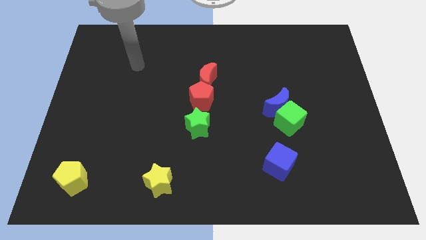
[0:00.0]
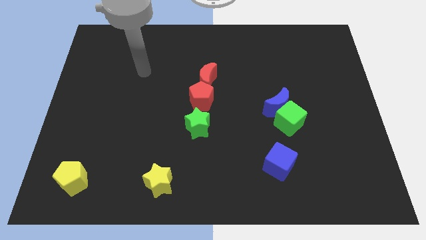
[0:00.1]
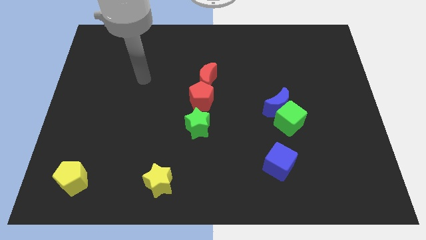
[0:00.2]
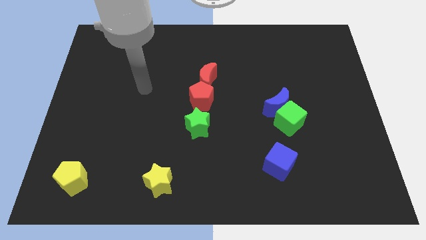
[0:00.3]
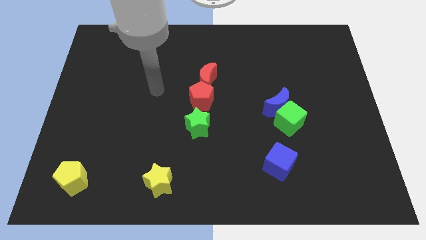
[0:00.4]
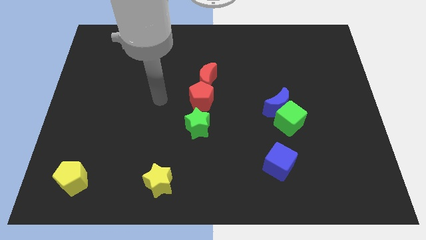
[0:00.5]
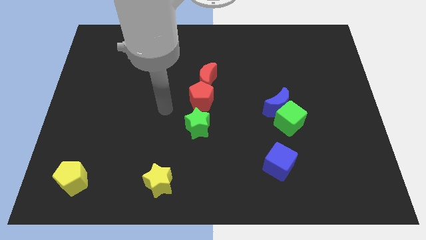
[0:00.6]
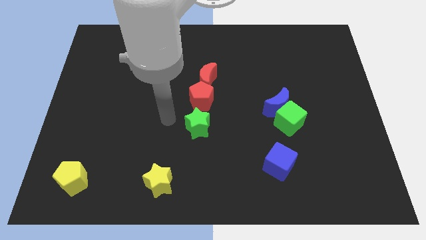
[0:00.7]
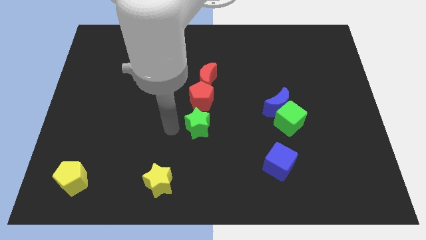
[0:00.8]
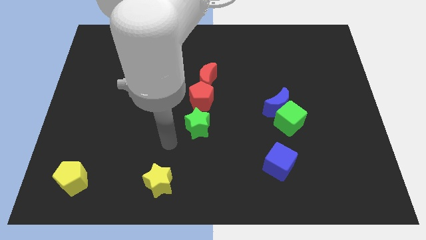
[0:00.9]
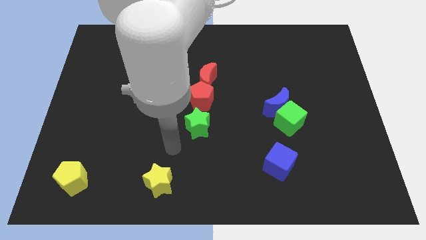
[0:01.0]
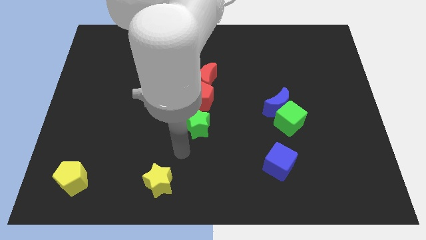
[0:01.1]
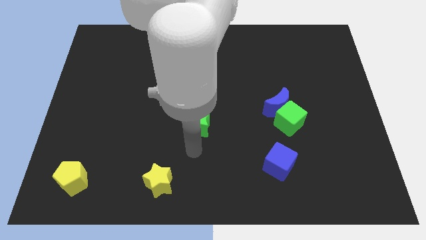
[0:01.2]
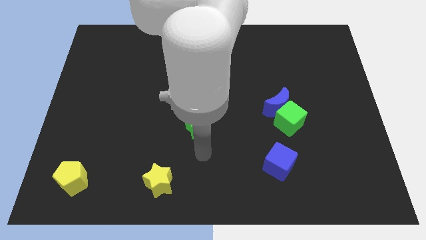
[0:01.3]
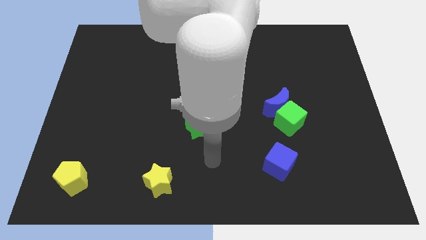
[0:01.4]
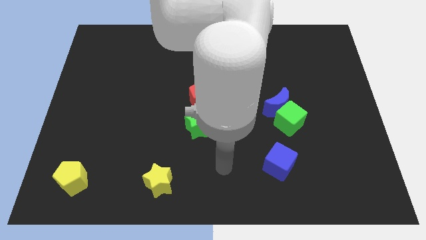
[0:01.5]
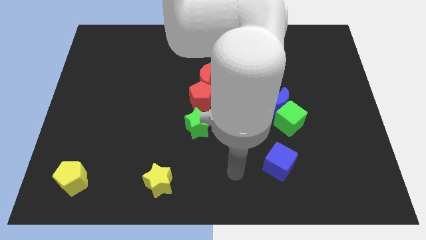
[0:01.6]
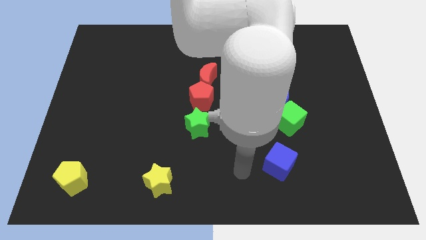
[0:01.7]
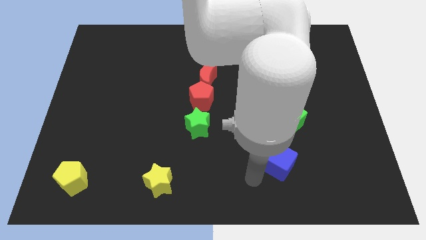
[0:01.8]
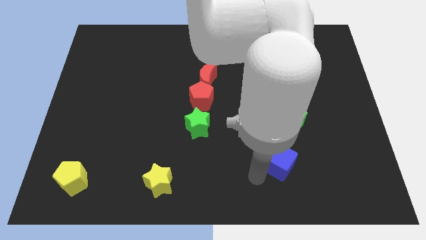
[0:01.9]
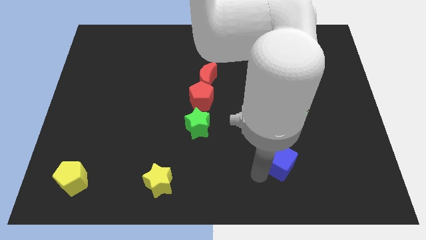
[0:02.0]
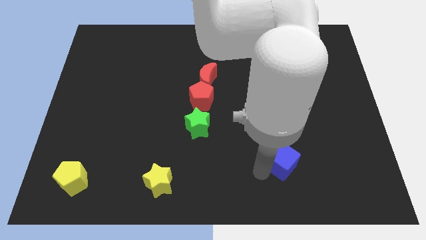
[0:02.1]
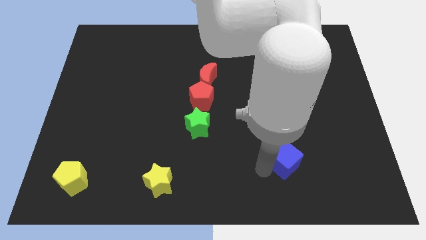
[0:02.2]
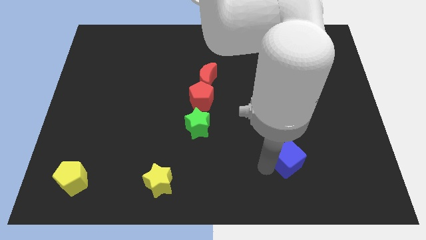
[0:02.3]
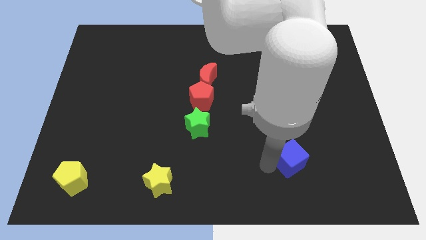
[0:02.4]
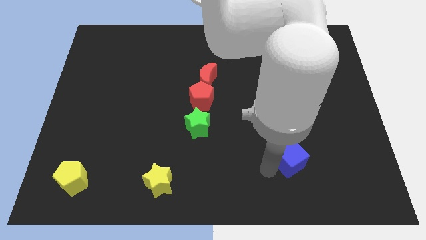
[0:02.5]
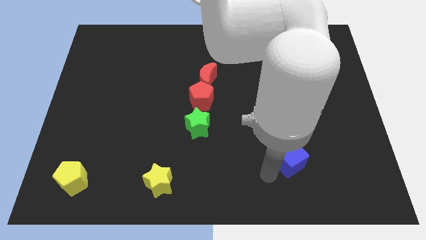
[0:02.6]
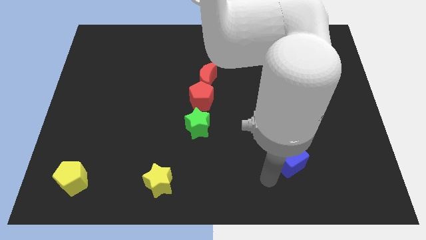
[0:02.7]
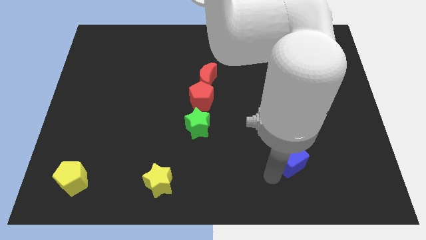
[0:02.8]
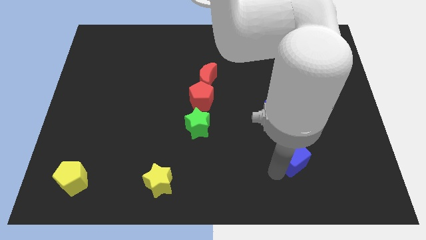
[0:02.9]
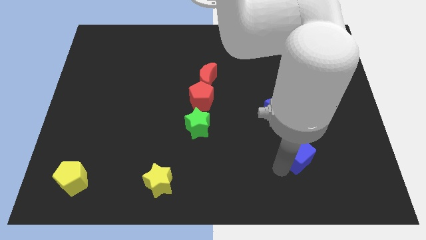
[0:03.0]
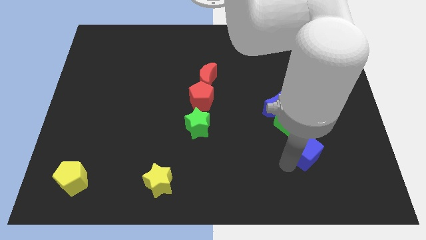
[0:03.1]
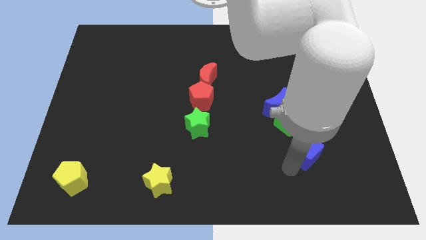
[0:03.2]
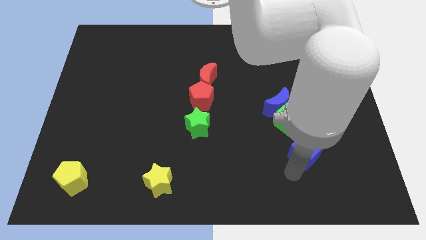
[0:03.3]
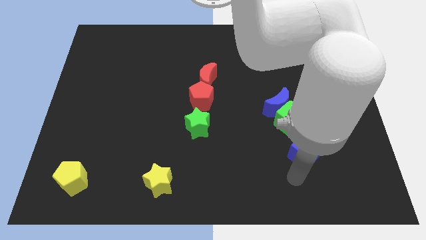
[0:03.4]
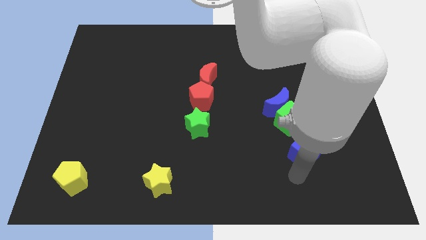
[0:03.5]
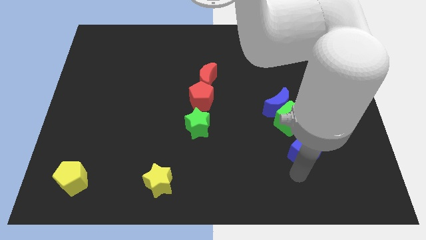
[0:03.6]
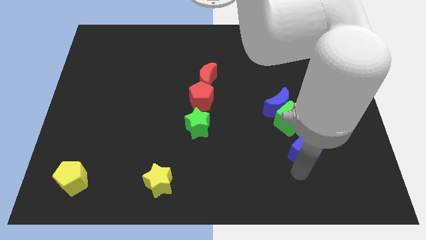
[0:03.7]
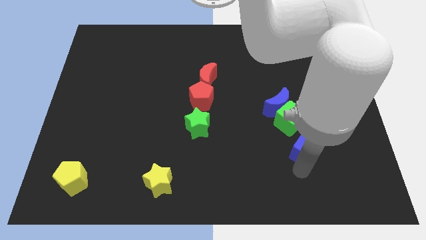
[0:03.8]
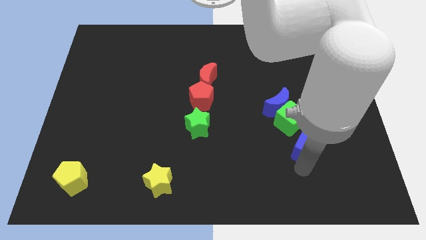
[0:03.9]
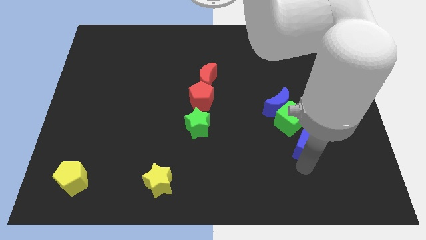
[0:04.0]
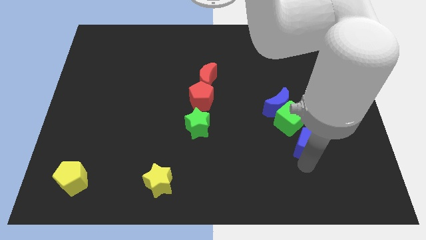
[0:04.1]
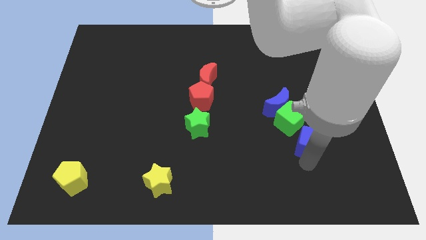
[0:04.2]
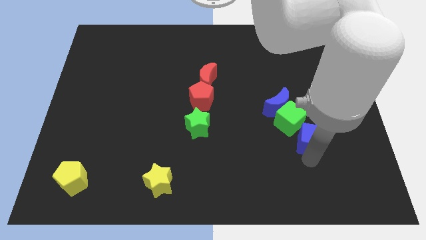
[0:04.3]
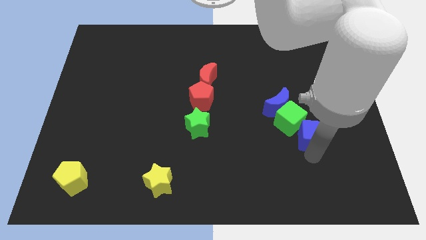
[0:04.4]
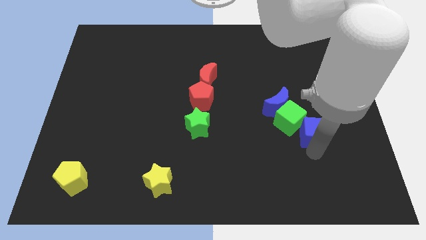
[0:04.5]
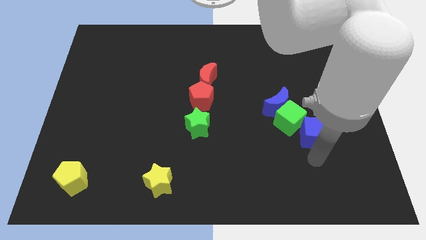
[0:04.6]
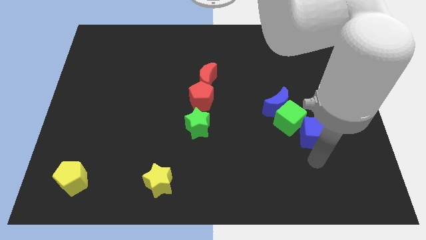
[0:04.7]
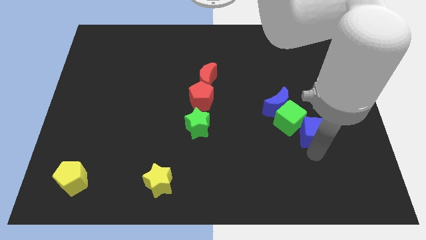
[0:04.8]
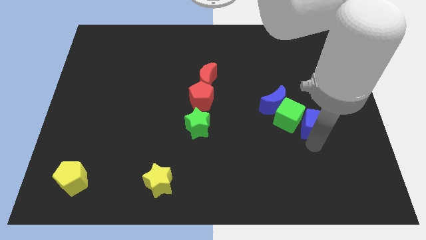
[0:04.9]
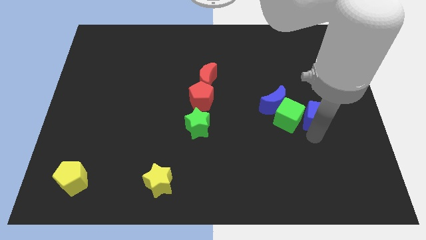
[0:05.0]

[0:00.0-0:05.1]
move the blue cube to the top right of the green cube

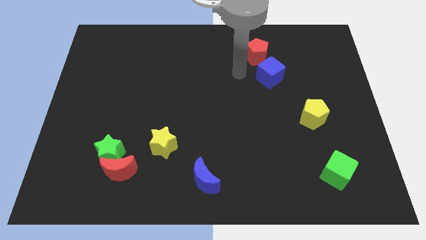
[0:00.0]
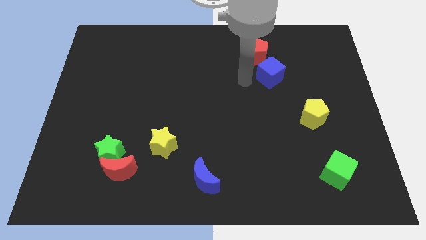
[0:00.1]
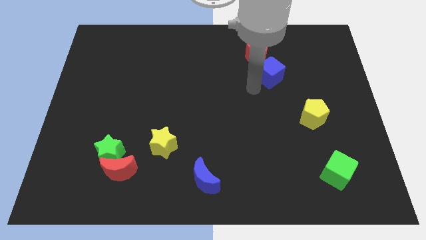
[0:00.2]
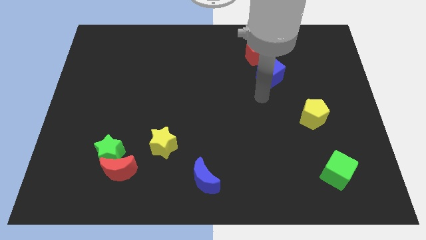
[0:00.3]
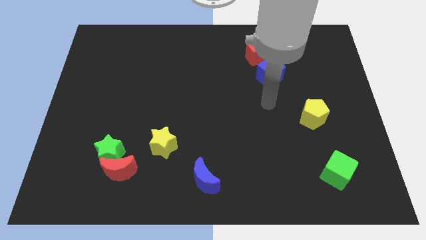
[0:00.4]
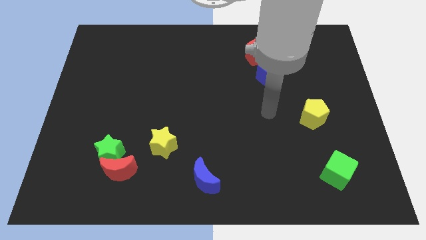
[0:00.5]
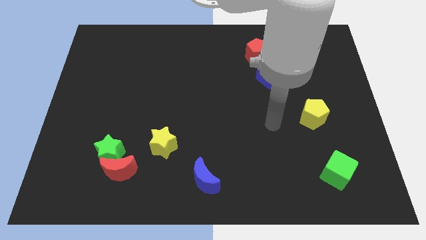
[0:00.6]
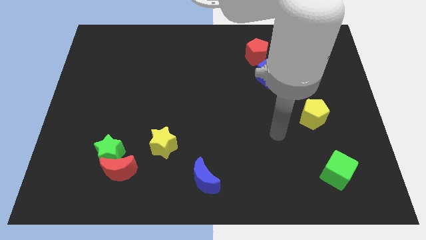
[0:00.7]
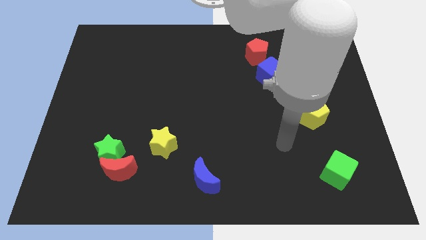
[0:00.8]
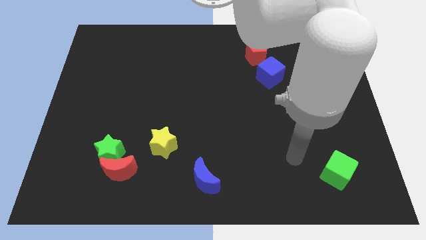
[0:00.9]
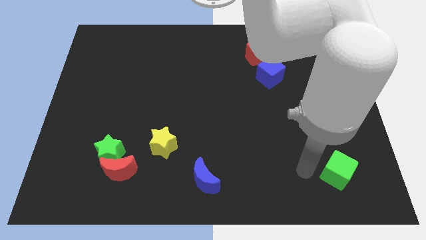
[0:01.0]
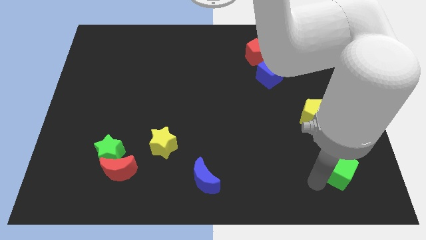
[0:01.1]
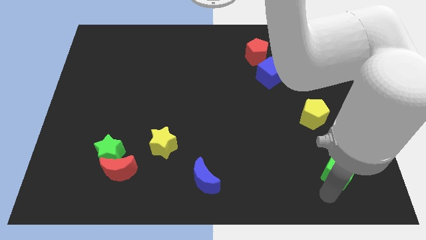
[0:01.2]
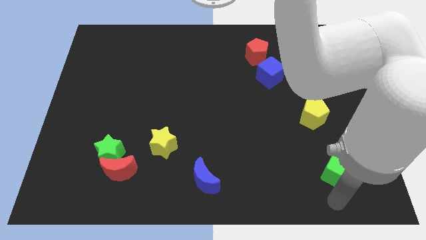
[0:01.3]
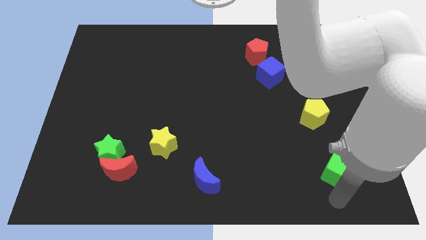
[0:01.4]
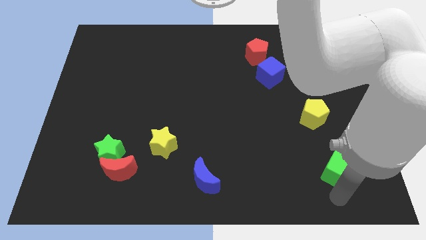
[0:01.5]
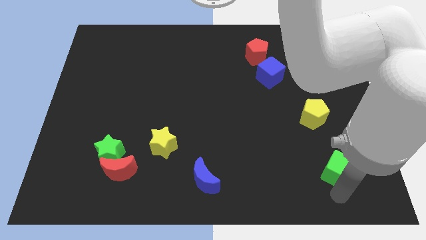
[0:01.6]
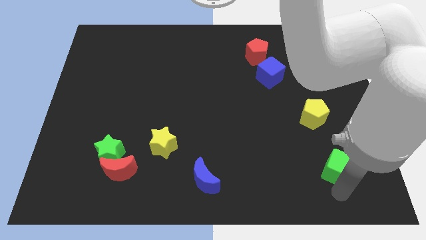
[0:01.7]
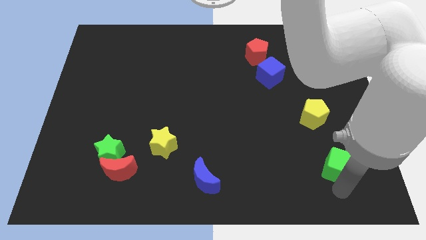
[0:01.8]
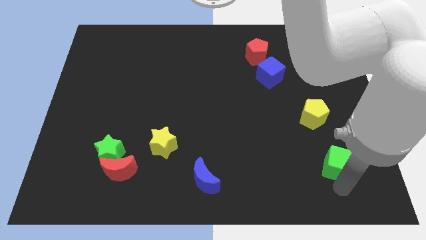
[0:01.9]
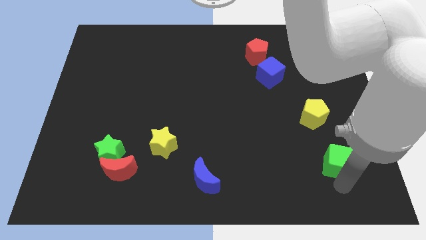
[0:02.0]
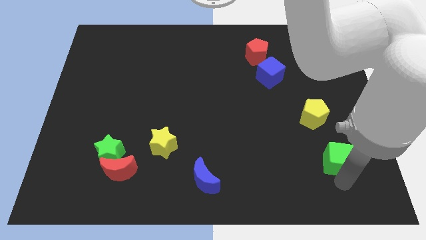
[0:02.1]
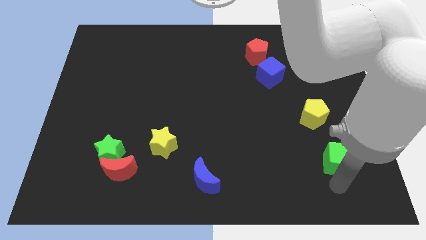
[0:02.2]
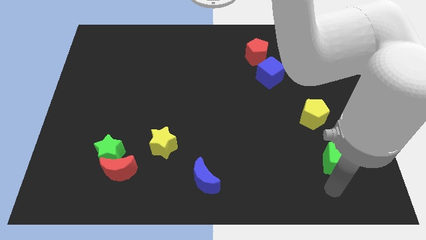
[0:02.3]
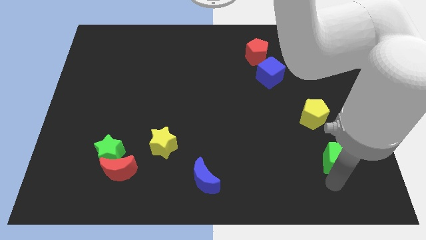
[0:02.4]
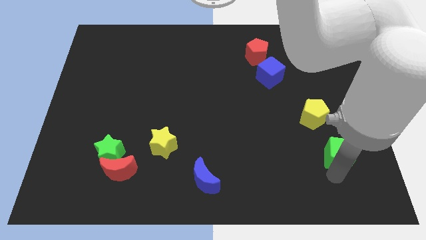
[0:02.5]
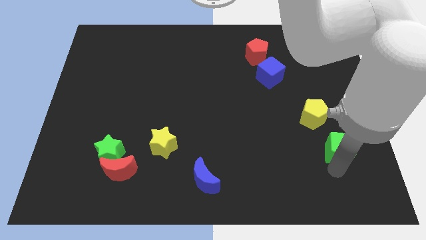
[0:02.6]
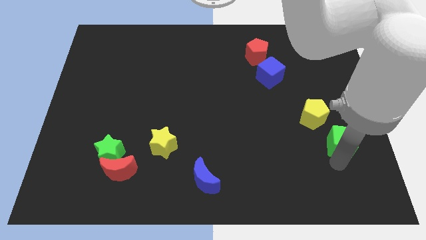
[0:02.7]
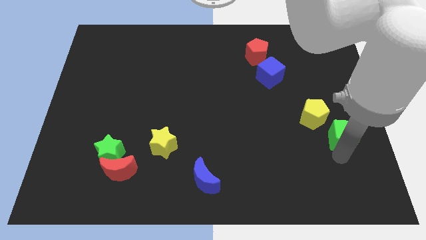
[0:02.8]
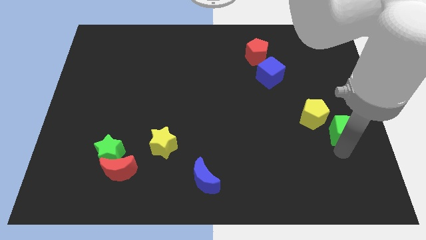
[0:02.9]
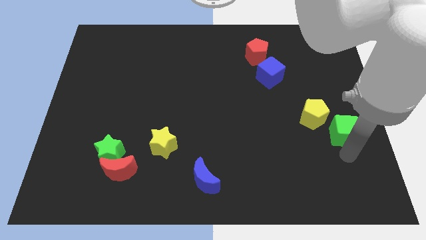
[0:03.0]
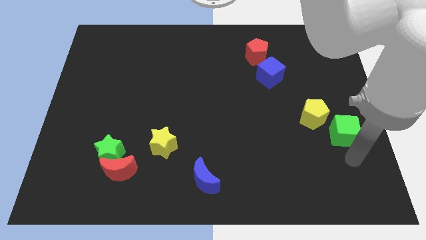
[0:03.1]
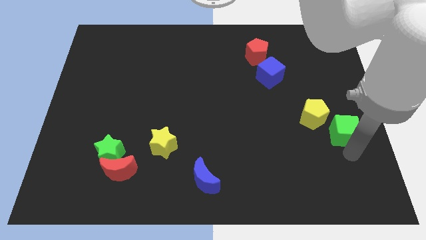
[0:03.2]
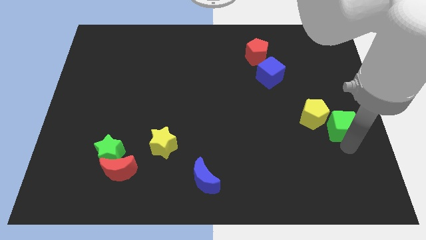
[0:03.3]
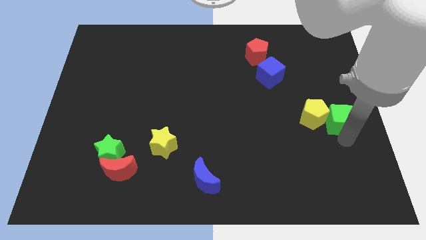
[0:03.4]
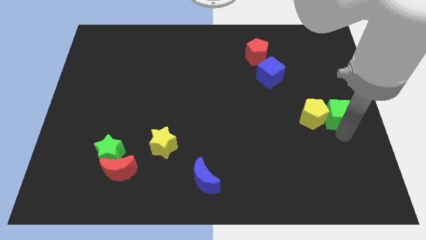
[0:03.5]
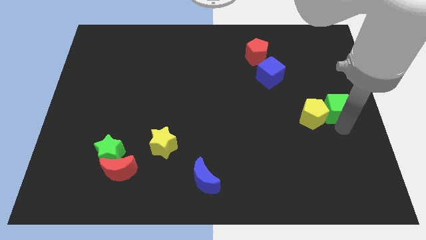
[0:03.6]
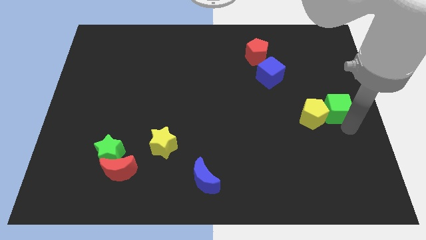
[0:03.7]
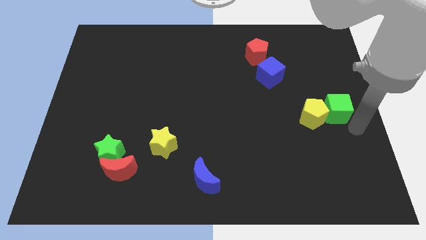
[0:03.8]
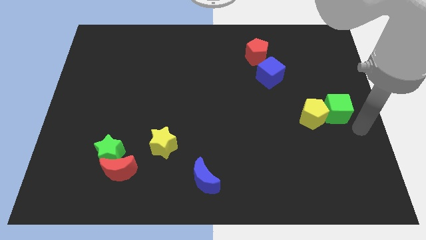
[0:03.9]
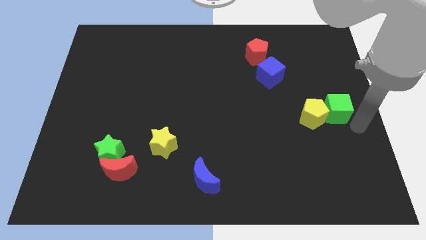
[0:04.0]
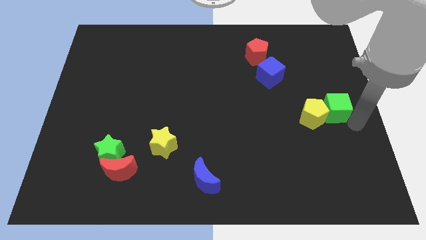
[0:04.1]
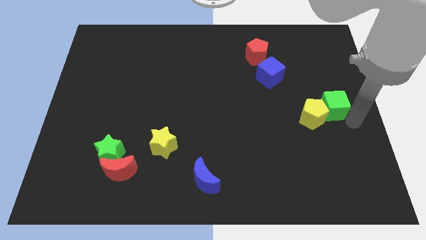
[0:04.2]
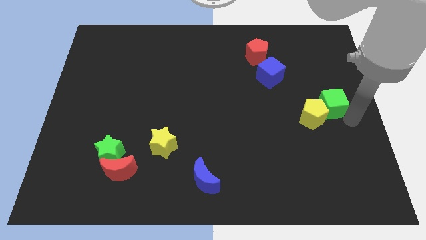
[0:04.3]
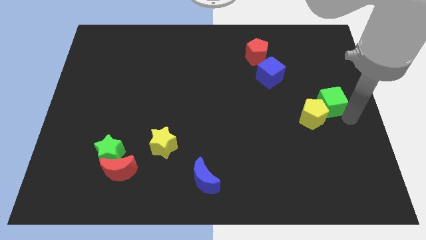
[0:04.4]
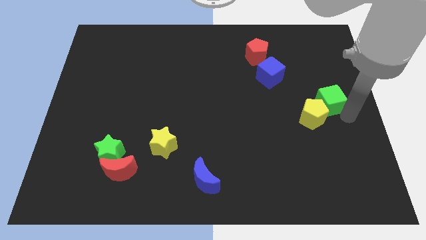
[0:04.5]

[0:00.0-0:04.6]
put the green cube to the top side of the yellow pentagon
